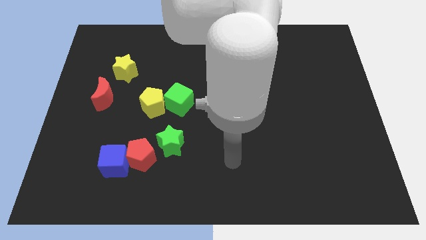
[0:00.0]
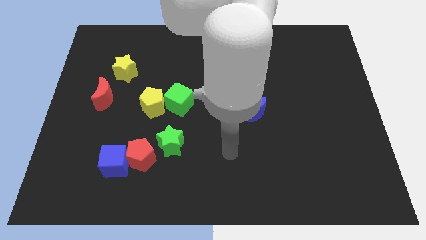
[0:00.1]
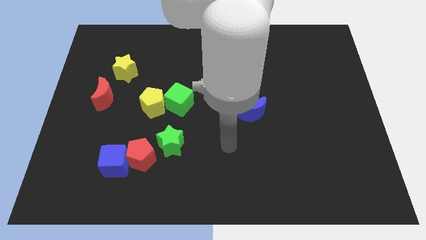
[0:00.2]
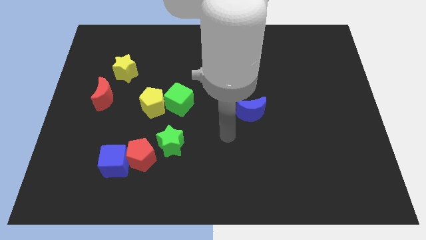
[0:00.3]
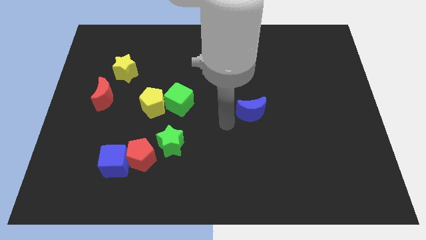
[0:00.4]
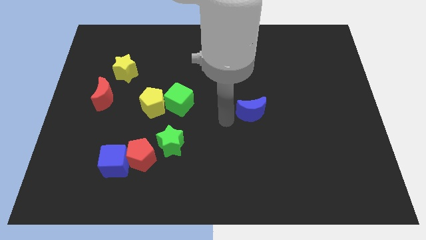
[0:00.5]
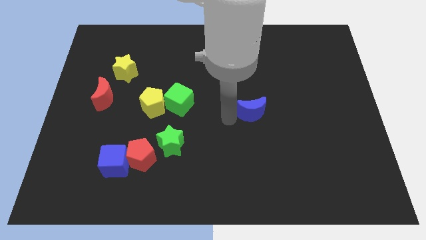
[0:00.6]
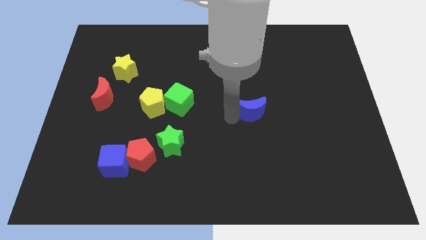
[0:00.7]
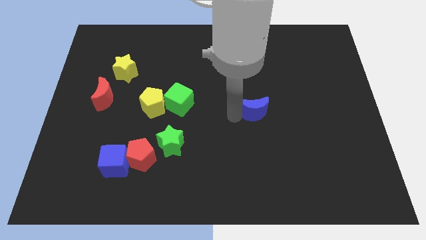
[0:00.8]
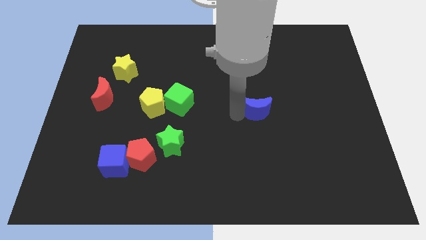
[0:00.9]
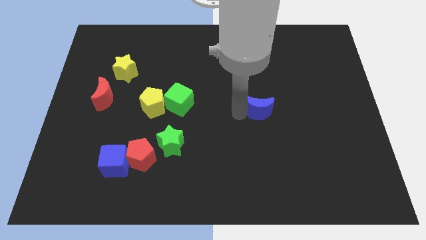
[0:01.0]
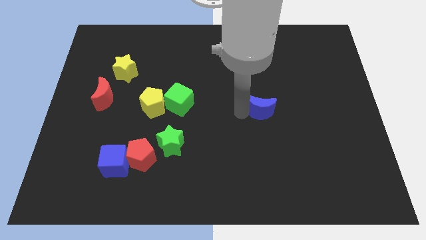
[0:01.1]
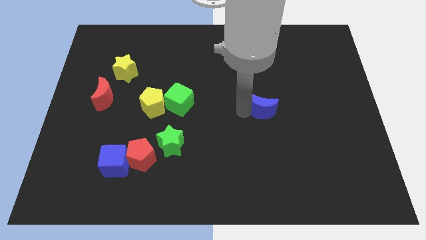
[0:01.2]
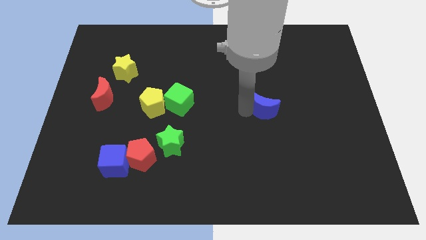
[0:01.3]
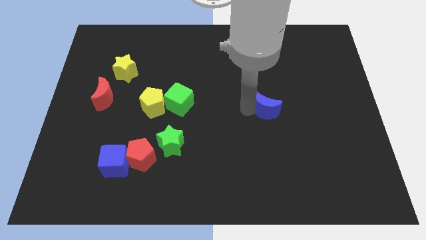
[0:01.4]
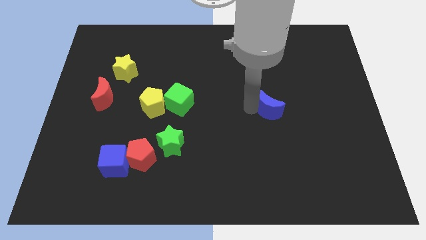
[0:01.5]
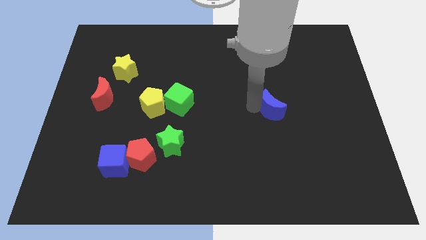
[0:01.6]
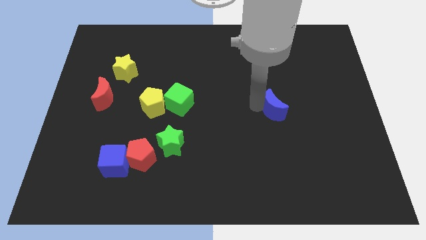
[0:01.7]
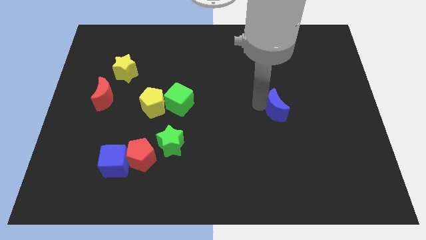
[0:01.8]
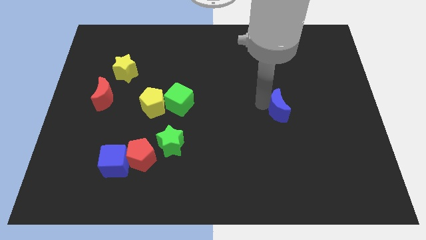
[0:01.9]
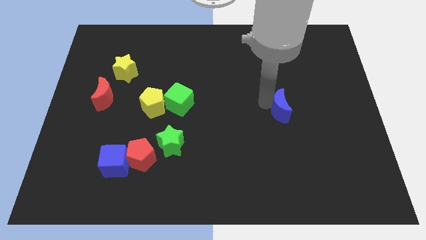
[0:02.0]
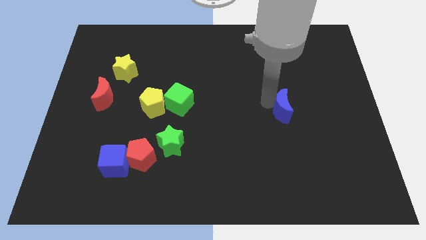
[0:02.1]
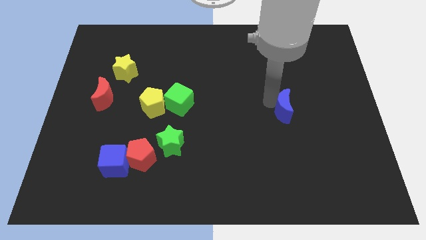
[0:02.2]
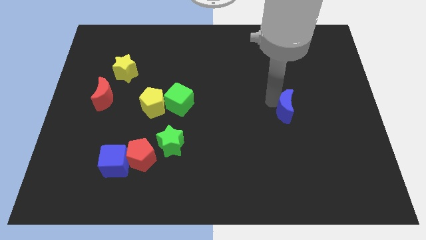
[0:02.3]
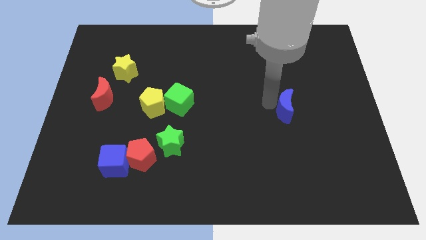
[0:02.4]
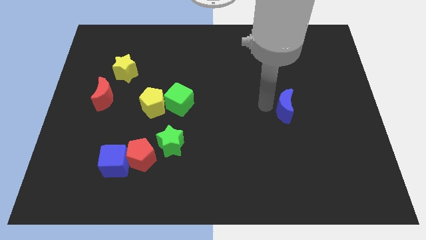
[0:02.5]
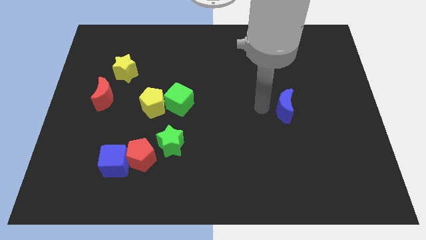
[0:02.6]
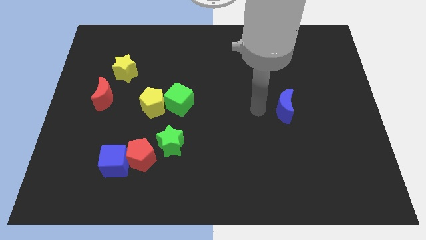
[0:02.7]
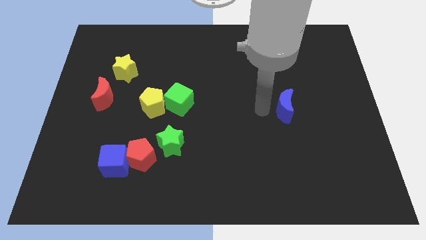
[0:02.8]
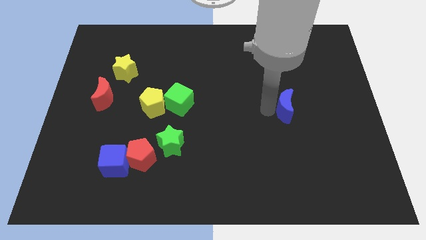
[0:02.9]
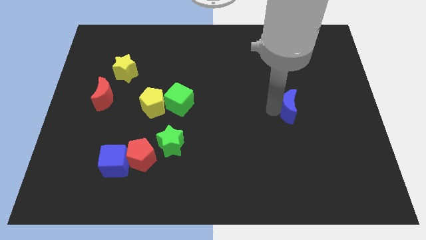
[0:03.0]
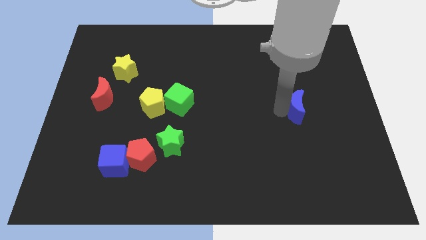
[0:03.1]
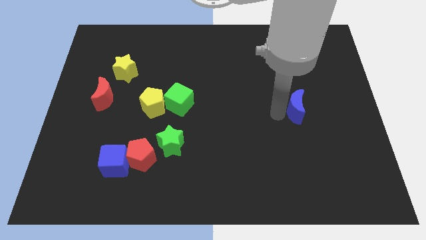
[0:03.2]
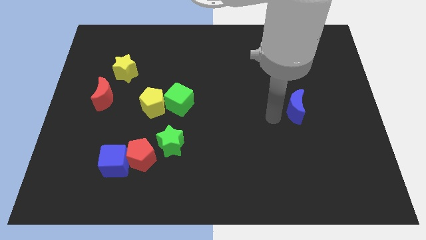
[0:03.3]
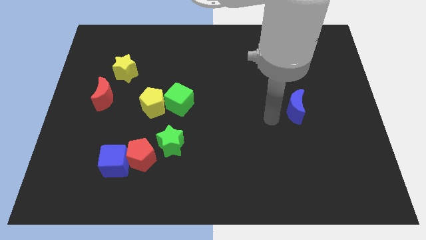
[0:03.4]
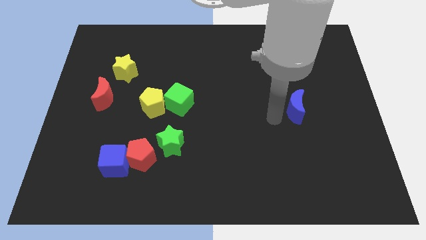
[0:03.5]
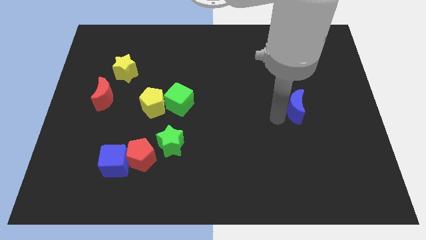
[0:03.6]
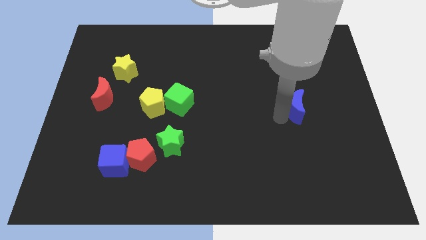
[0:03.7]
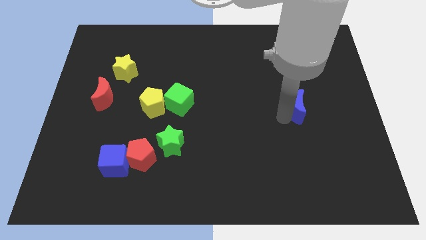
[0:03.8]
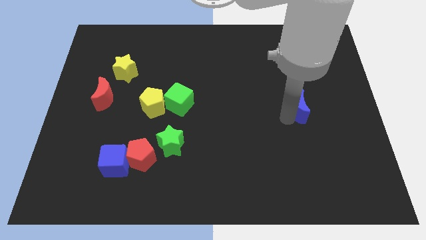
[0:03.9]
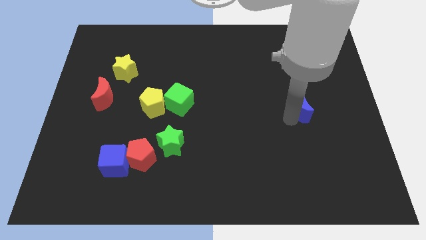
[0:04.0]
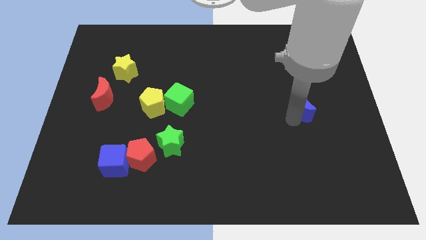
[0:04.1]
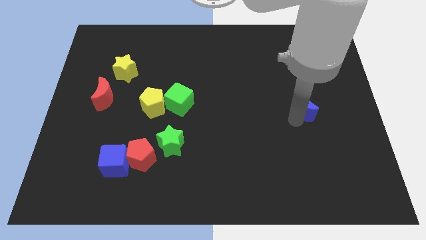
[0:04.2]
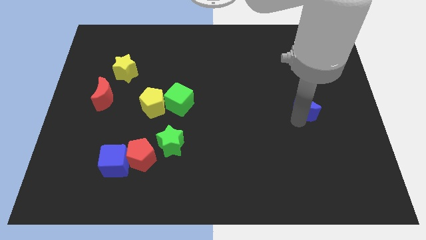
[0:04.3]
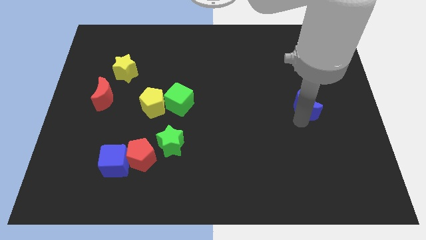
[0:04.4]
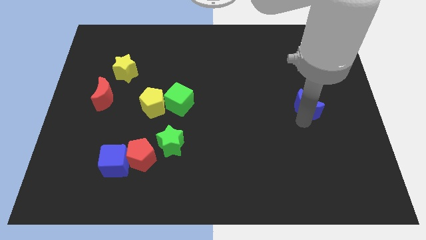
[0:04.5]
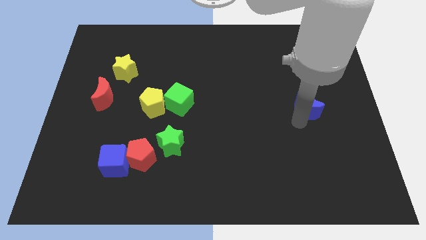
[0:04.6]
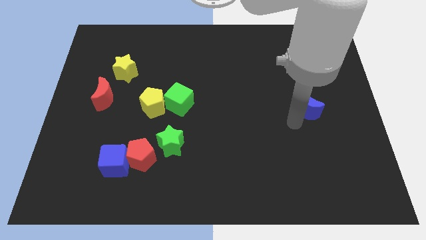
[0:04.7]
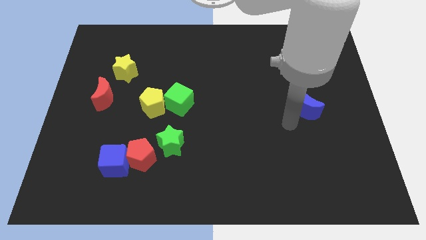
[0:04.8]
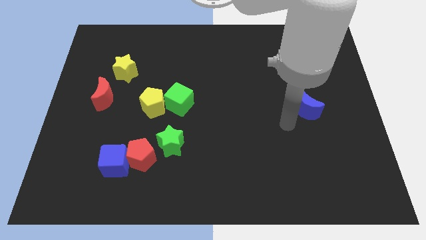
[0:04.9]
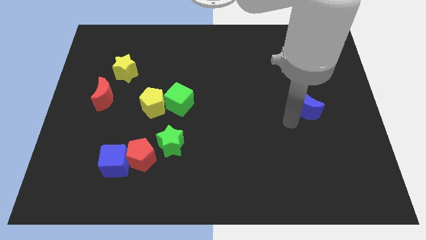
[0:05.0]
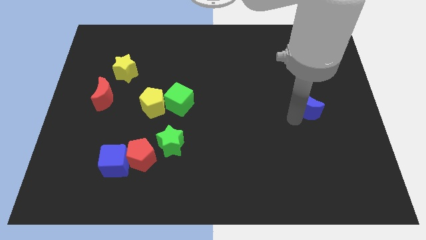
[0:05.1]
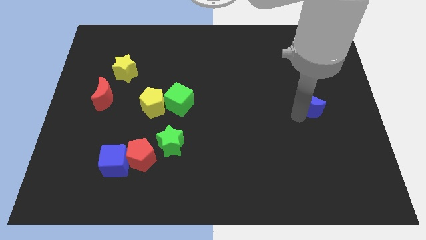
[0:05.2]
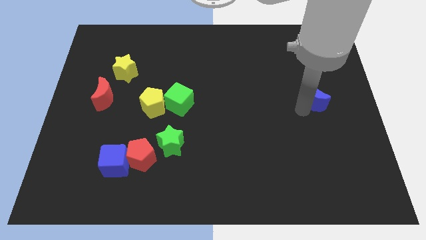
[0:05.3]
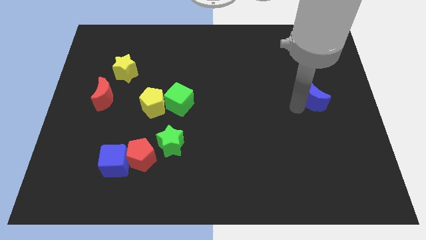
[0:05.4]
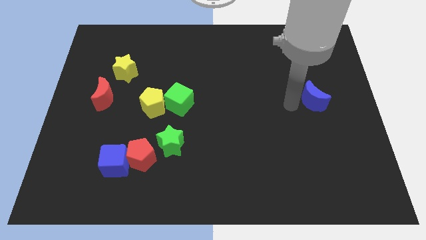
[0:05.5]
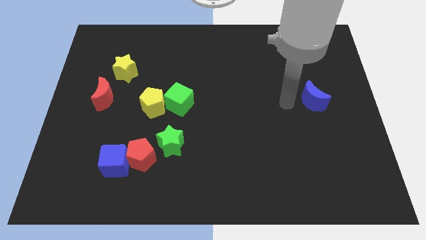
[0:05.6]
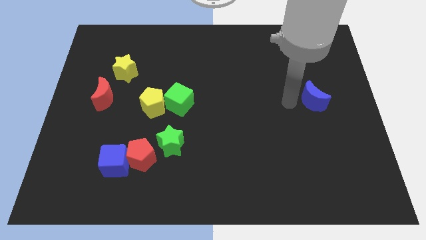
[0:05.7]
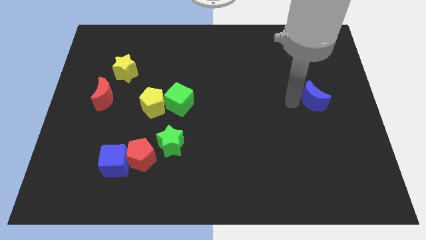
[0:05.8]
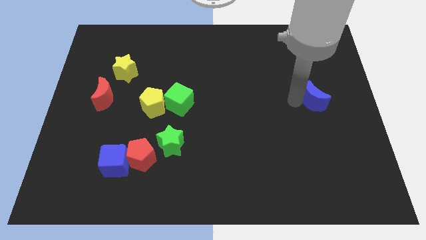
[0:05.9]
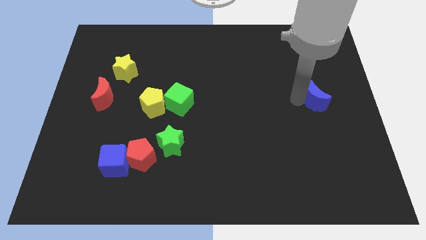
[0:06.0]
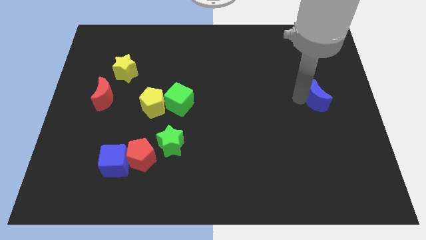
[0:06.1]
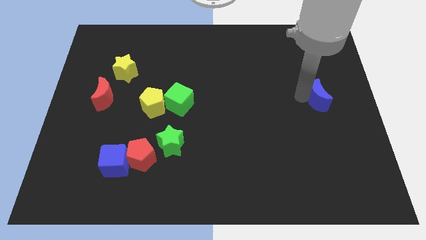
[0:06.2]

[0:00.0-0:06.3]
slide the blue moon to the right side of the board
